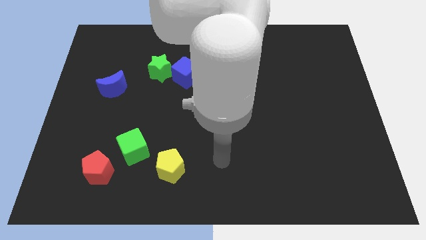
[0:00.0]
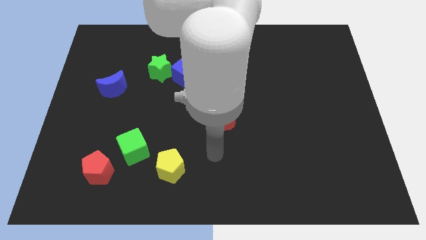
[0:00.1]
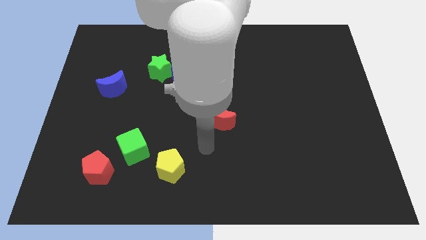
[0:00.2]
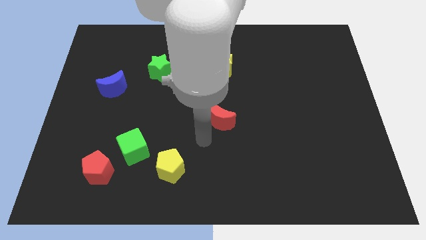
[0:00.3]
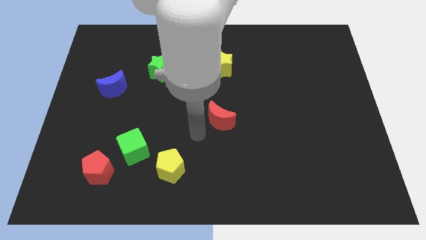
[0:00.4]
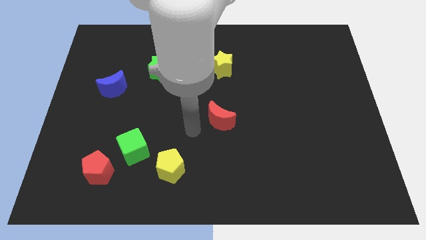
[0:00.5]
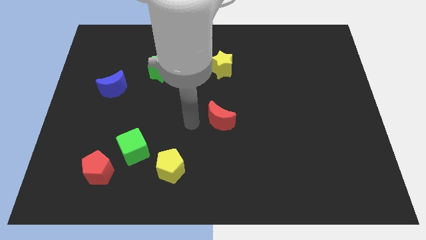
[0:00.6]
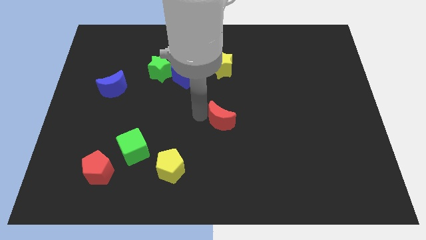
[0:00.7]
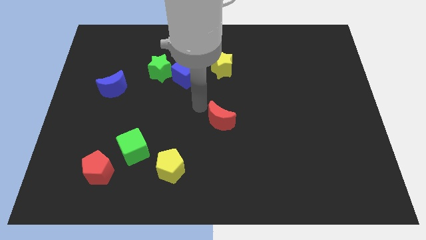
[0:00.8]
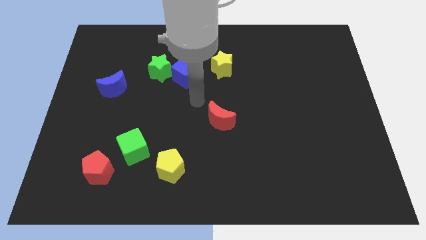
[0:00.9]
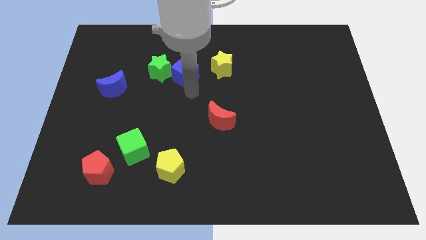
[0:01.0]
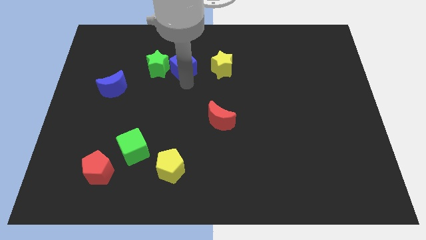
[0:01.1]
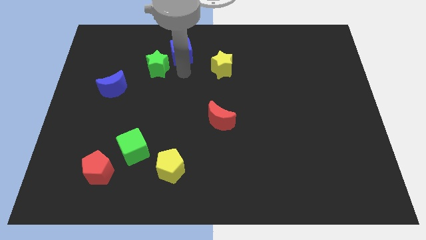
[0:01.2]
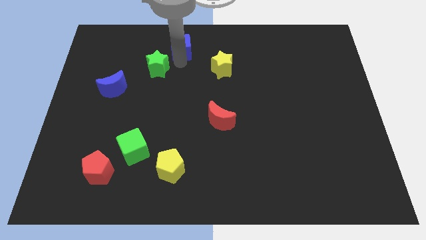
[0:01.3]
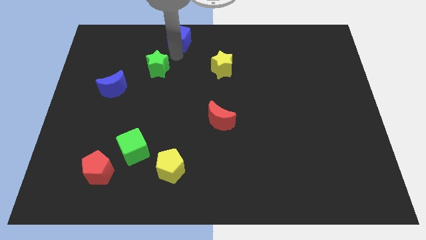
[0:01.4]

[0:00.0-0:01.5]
separate the green star from the blue cube

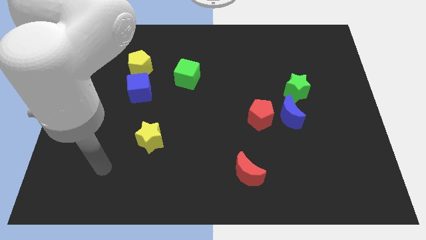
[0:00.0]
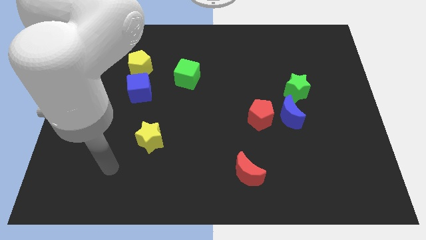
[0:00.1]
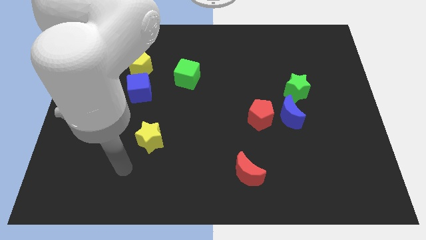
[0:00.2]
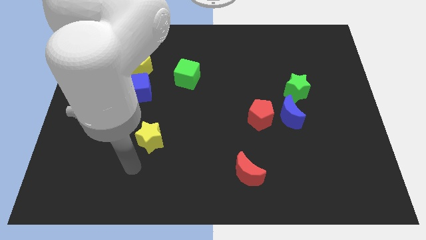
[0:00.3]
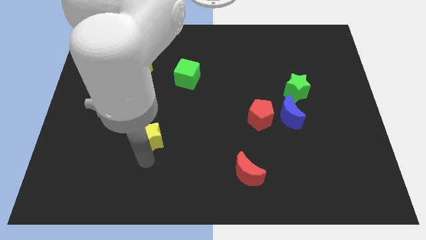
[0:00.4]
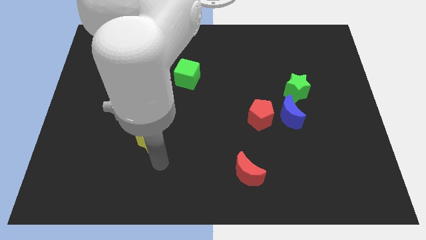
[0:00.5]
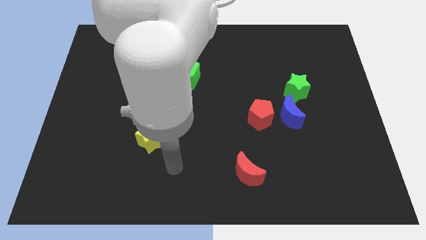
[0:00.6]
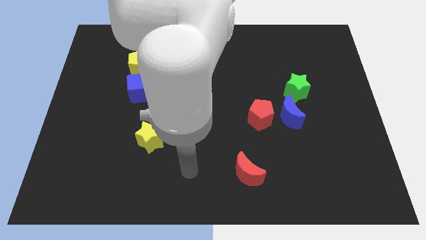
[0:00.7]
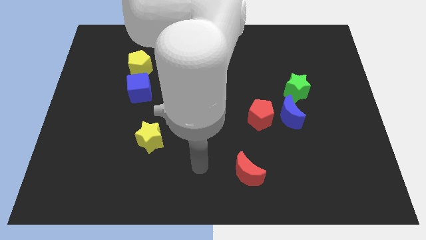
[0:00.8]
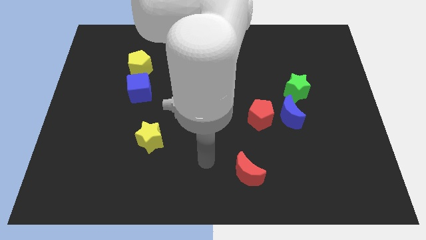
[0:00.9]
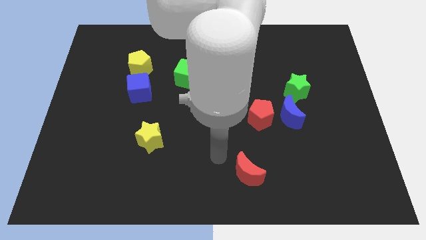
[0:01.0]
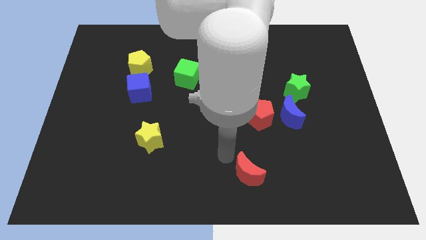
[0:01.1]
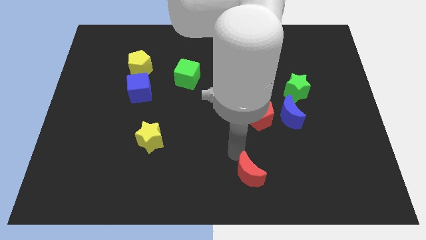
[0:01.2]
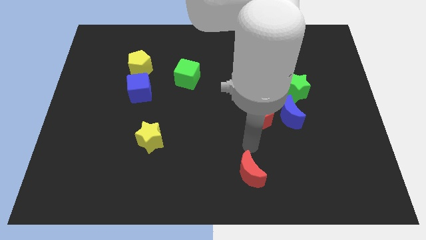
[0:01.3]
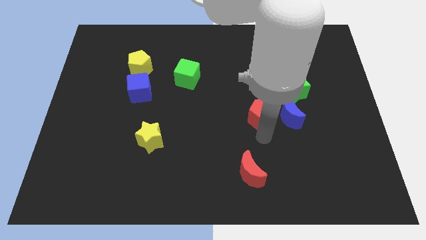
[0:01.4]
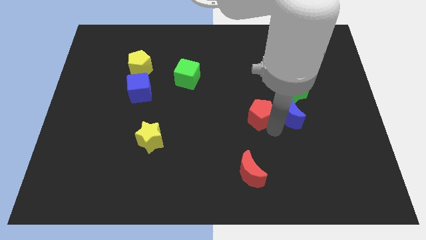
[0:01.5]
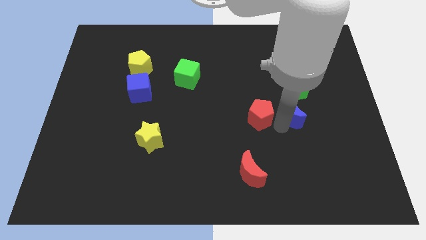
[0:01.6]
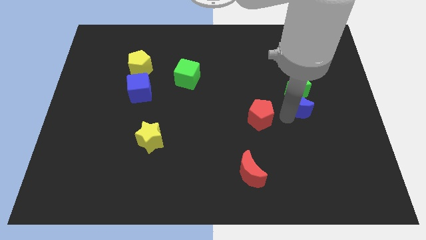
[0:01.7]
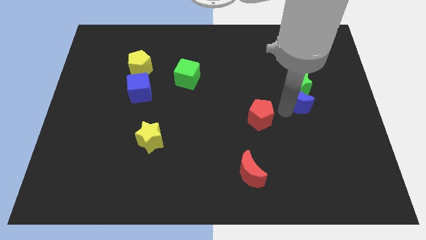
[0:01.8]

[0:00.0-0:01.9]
pull the red pentagon apart from the blue moon

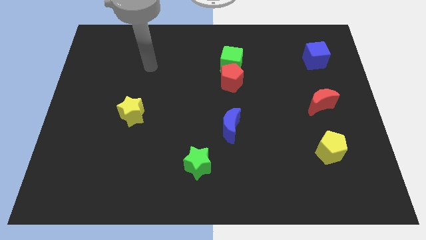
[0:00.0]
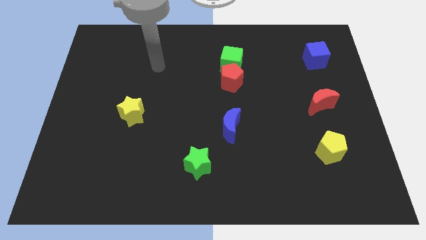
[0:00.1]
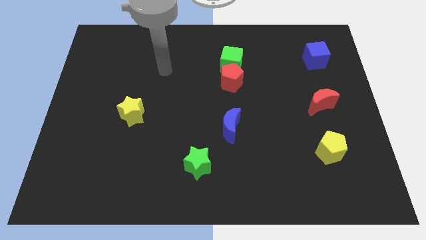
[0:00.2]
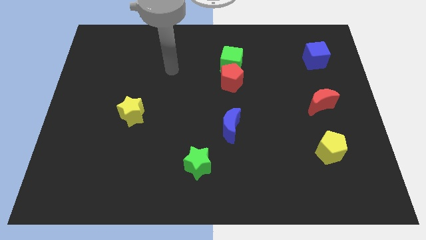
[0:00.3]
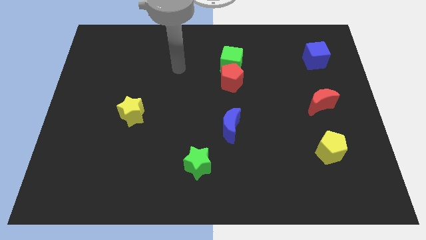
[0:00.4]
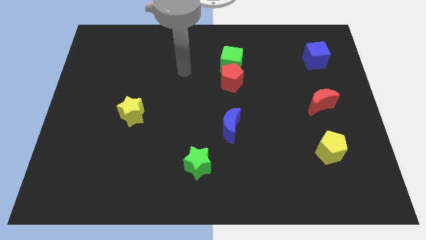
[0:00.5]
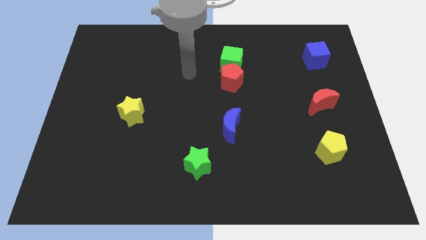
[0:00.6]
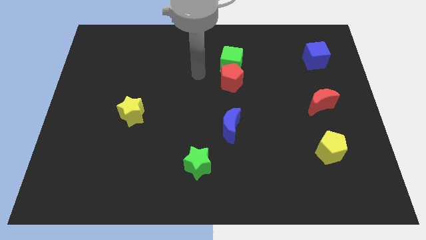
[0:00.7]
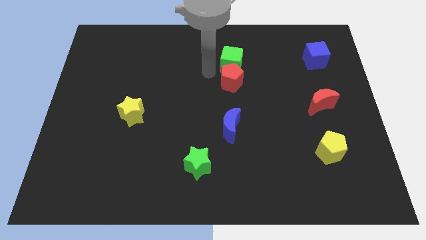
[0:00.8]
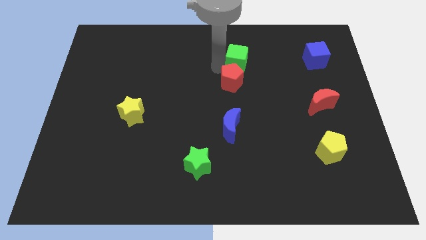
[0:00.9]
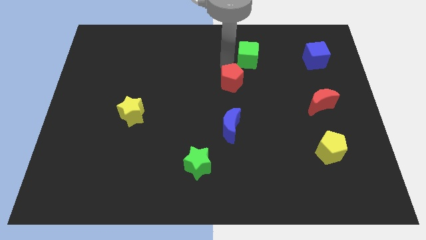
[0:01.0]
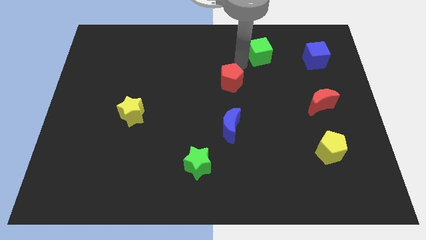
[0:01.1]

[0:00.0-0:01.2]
move the red pentagon away from the green cube

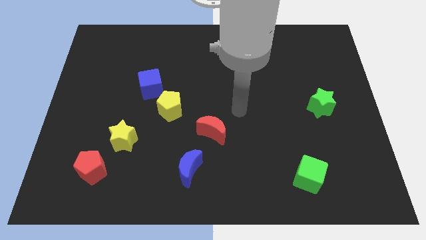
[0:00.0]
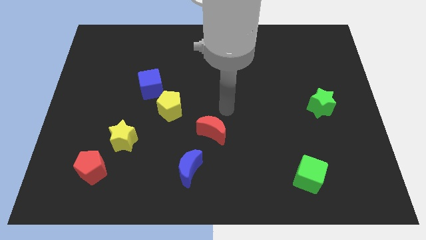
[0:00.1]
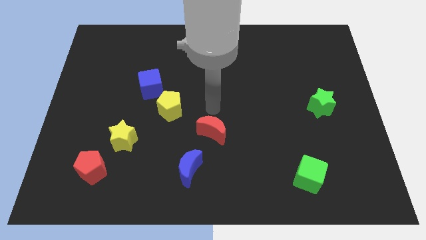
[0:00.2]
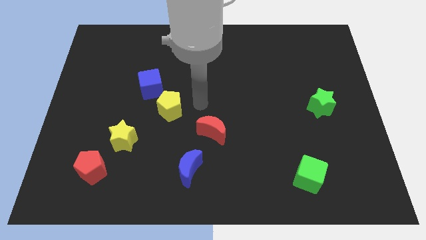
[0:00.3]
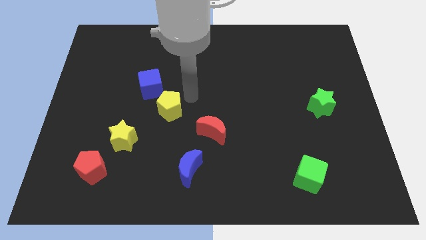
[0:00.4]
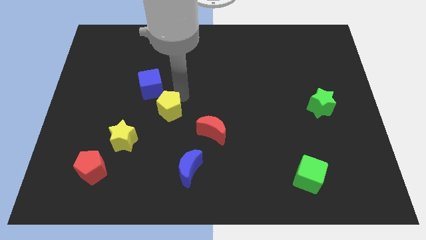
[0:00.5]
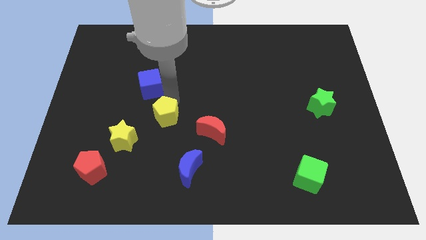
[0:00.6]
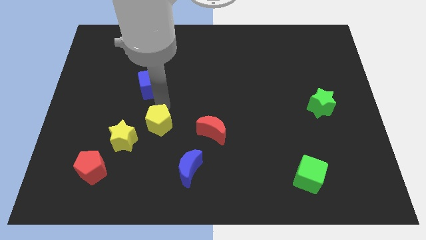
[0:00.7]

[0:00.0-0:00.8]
separate the blue cube from the yellow pentagon

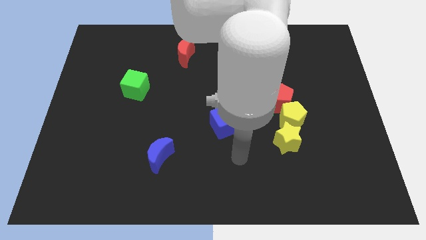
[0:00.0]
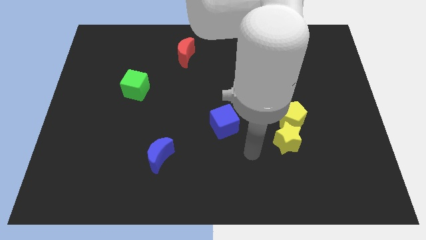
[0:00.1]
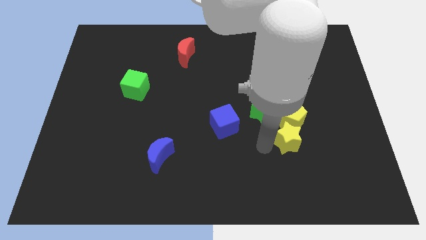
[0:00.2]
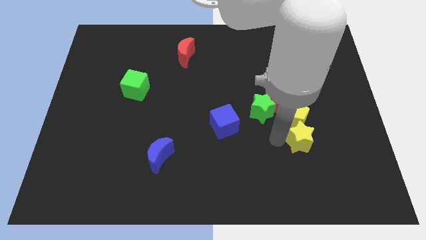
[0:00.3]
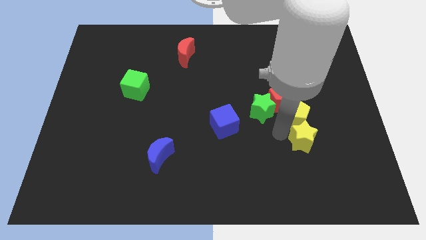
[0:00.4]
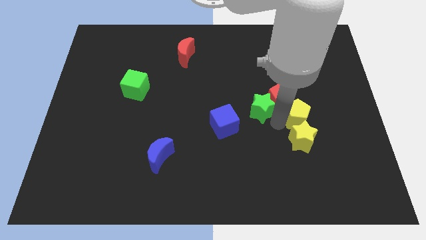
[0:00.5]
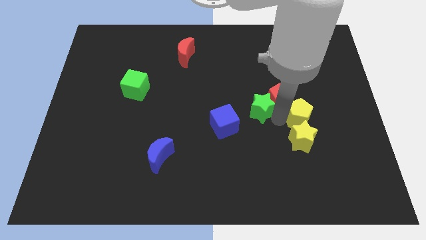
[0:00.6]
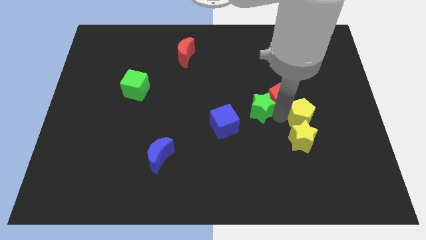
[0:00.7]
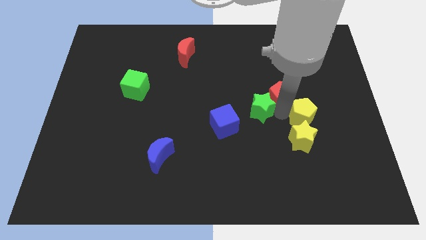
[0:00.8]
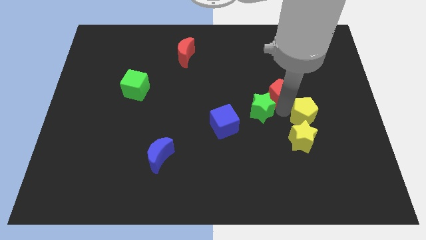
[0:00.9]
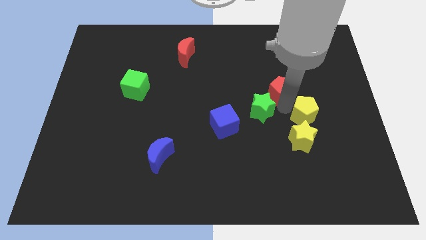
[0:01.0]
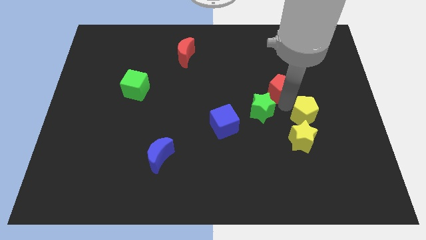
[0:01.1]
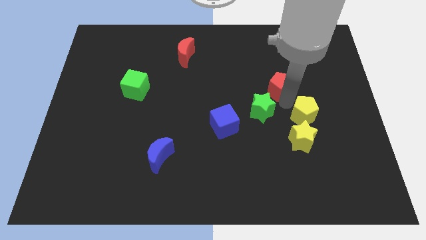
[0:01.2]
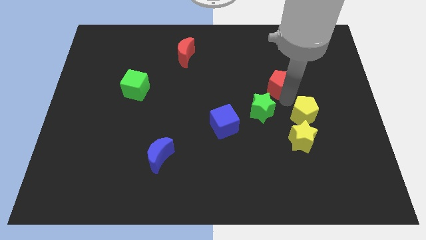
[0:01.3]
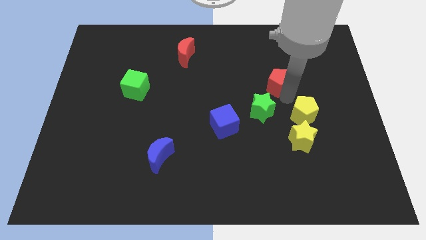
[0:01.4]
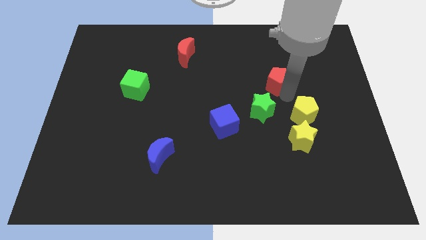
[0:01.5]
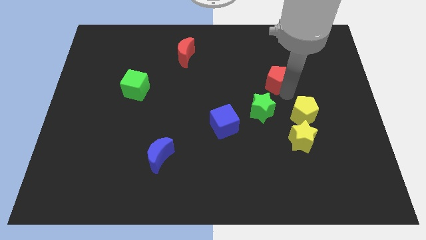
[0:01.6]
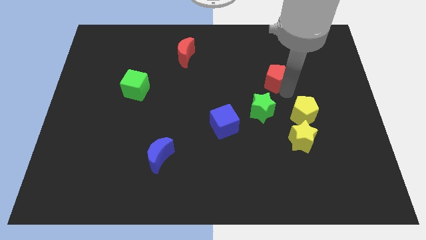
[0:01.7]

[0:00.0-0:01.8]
separate the red pentagon from the green star and yellow pentagon

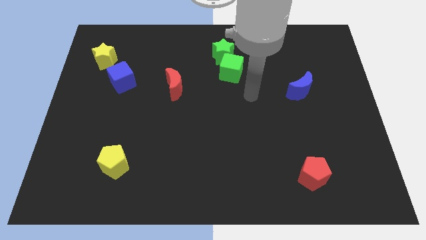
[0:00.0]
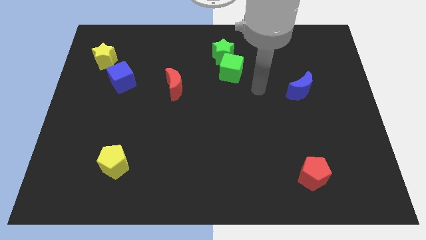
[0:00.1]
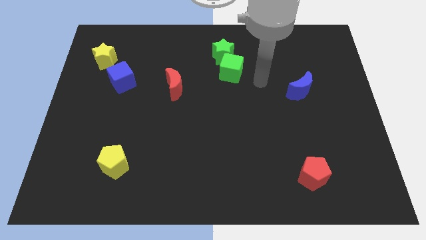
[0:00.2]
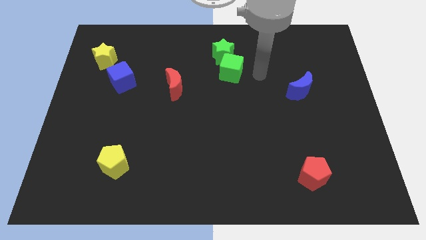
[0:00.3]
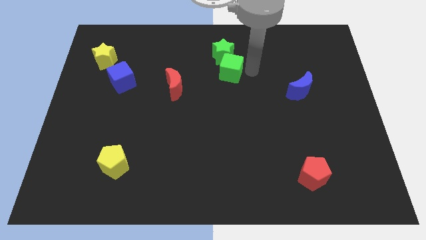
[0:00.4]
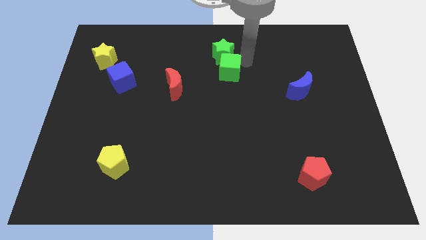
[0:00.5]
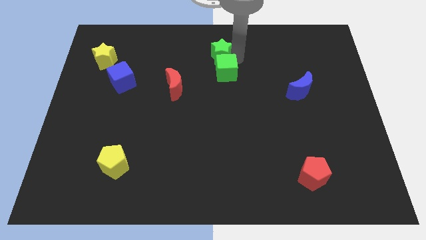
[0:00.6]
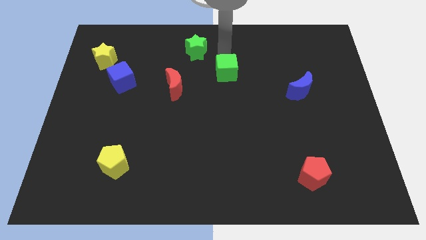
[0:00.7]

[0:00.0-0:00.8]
move the green cube away from the green star

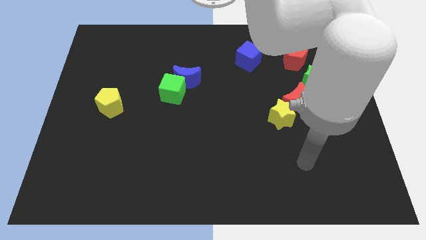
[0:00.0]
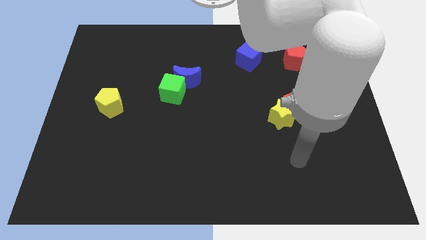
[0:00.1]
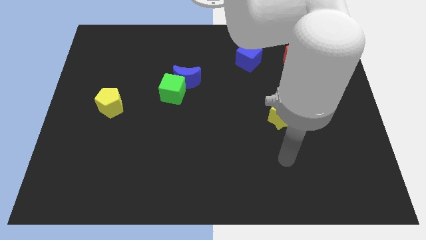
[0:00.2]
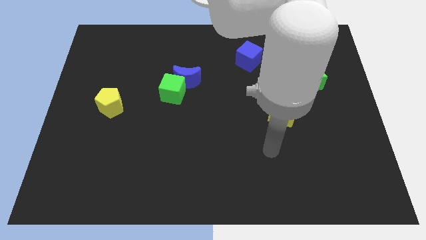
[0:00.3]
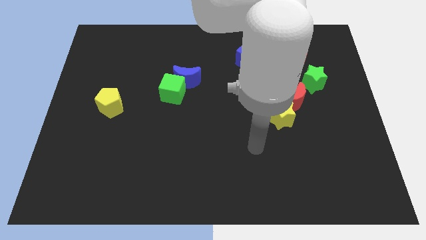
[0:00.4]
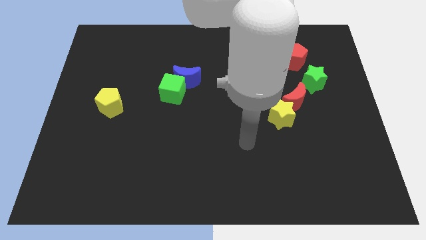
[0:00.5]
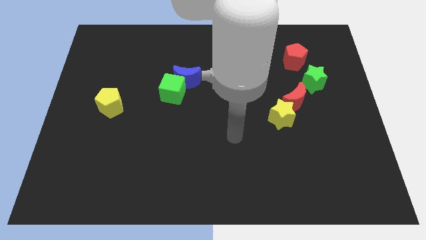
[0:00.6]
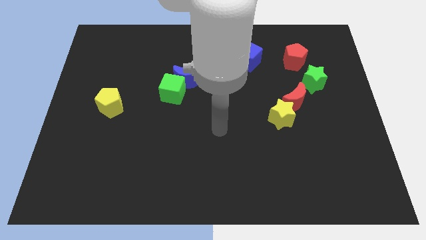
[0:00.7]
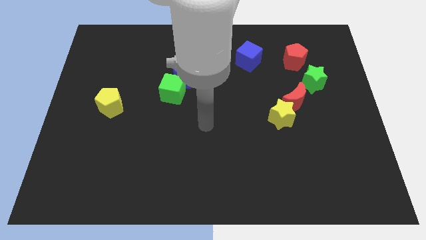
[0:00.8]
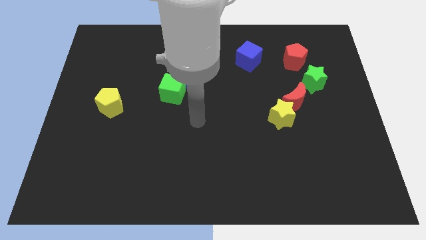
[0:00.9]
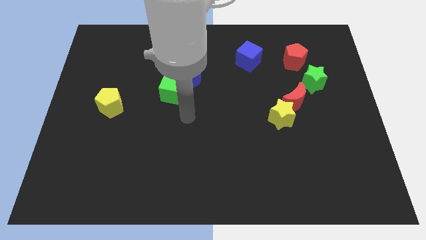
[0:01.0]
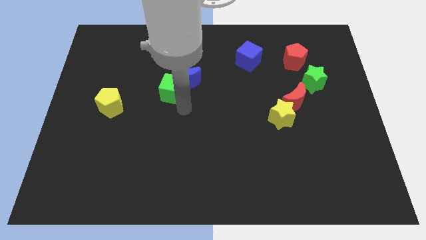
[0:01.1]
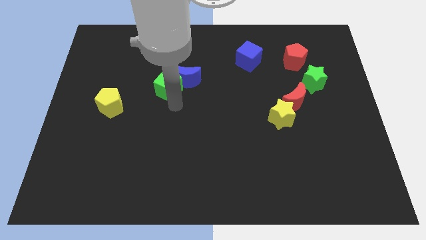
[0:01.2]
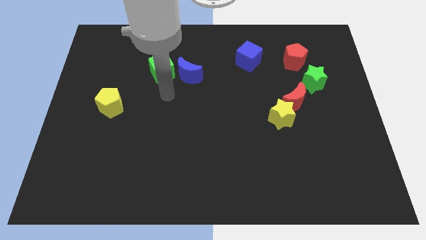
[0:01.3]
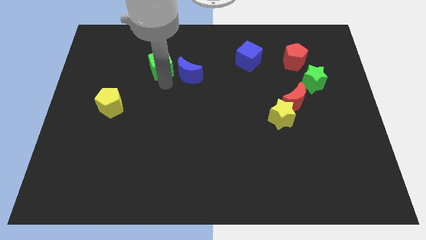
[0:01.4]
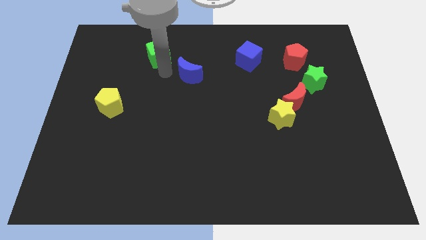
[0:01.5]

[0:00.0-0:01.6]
move the blue moon away from the green cube
